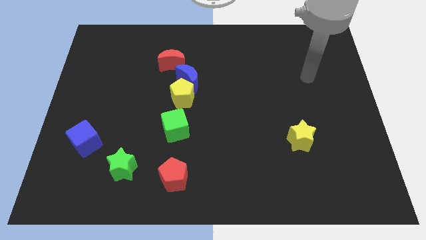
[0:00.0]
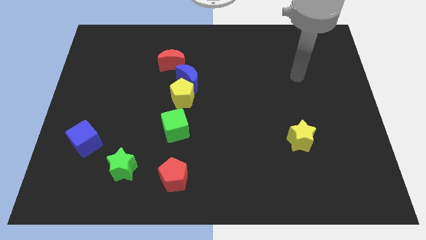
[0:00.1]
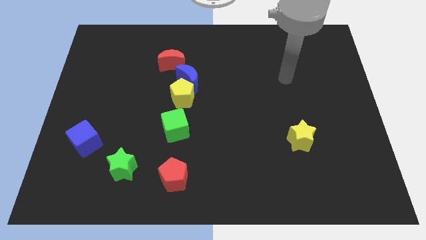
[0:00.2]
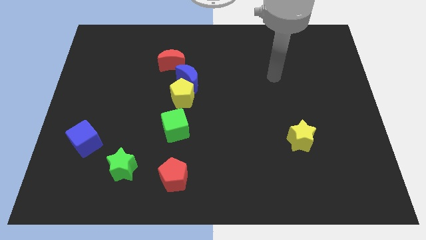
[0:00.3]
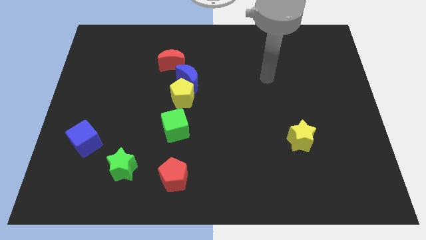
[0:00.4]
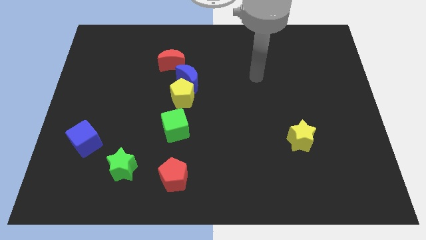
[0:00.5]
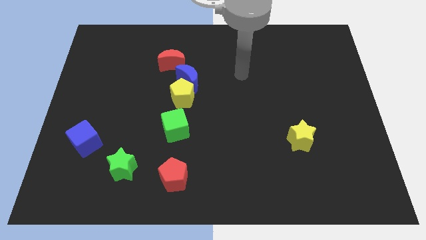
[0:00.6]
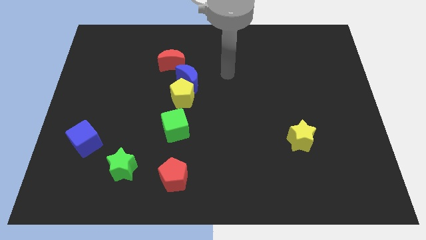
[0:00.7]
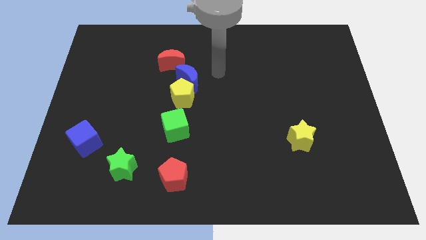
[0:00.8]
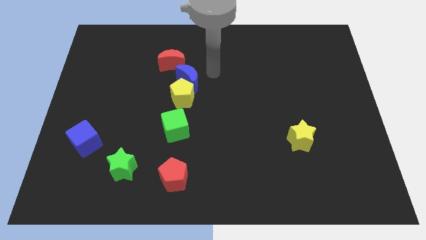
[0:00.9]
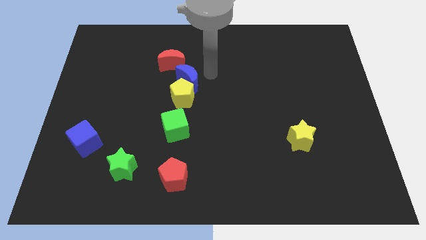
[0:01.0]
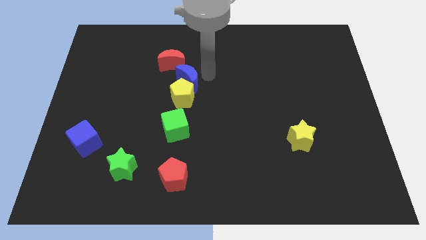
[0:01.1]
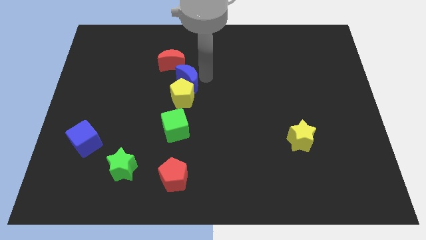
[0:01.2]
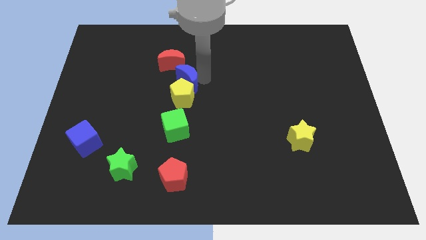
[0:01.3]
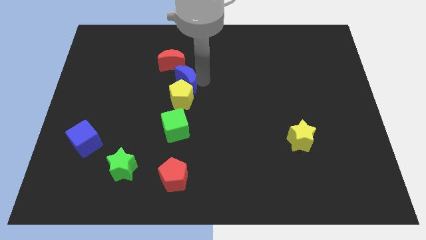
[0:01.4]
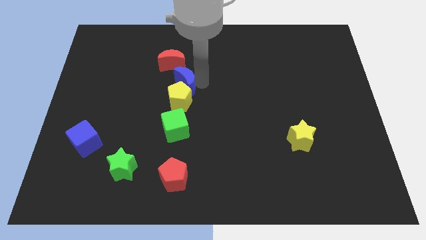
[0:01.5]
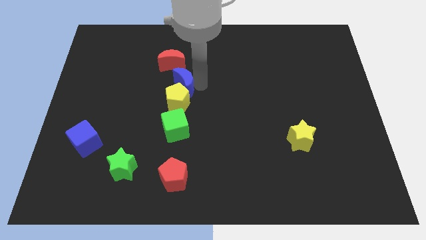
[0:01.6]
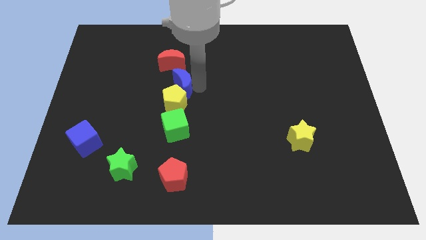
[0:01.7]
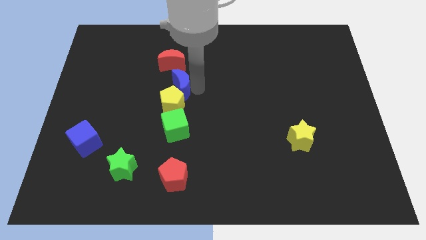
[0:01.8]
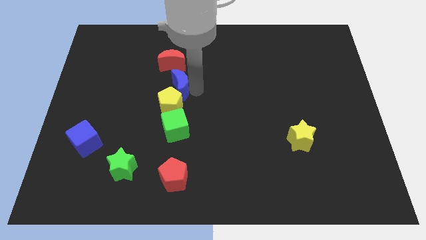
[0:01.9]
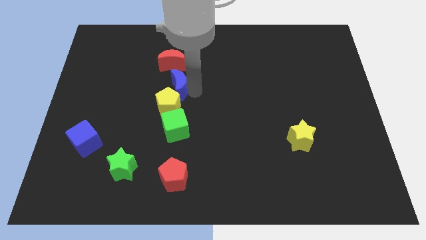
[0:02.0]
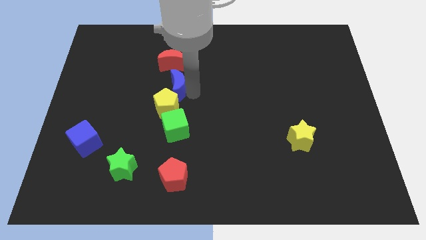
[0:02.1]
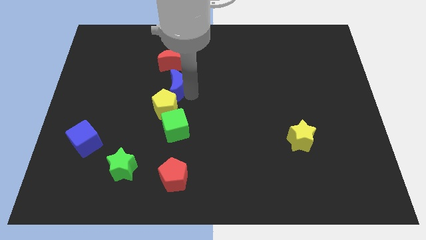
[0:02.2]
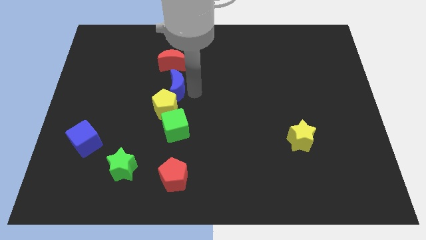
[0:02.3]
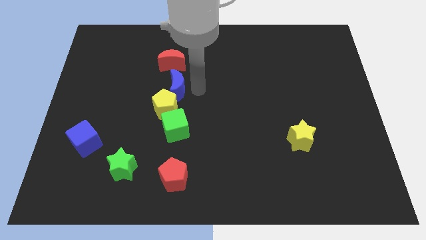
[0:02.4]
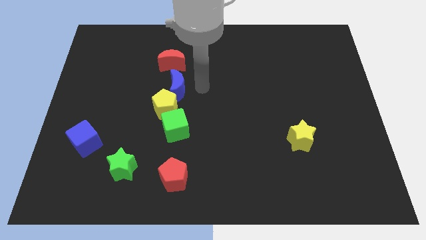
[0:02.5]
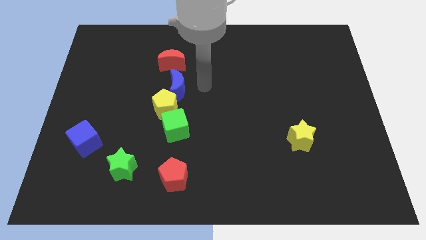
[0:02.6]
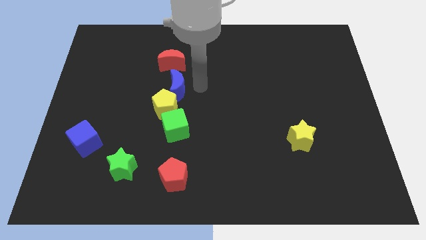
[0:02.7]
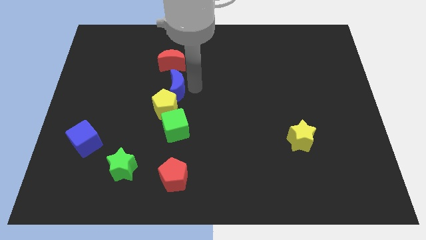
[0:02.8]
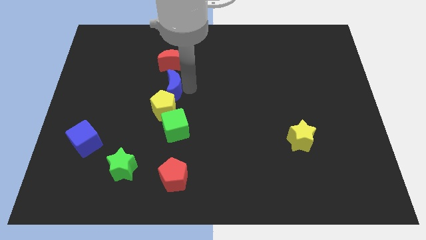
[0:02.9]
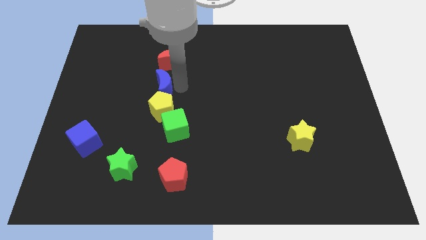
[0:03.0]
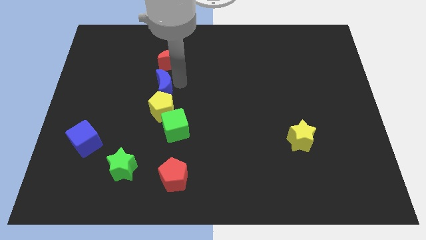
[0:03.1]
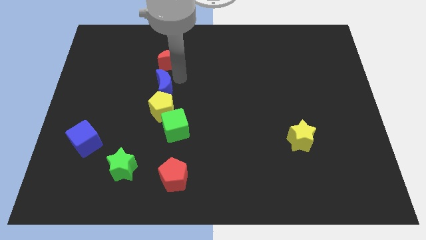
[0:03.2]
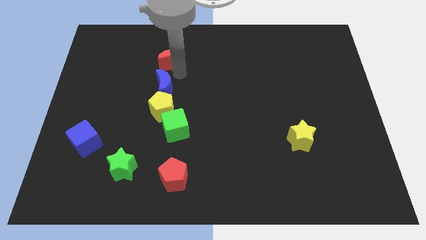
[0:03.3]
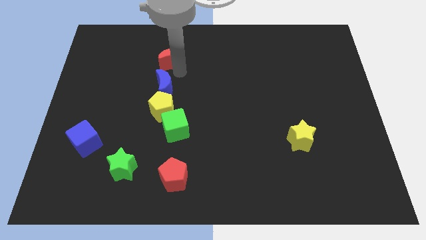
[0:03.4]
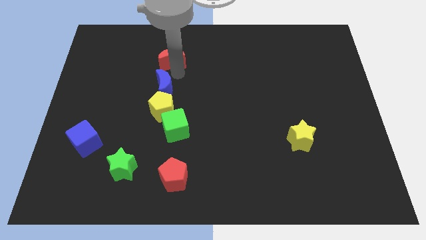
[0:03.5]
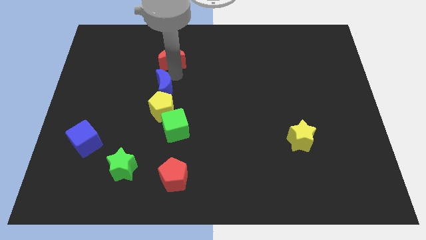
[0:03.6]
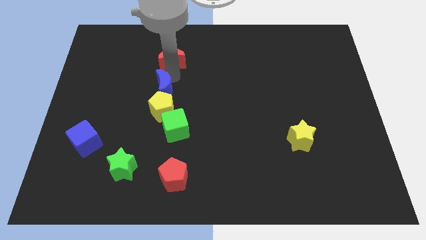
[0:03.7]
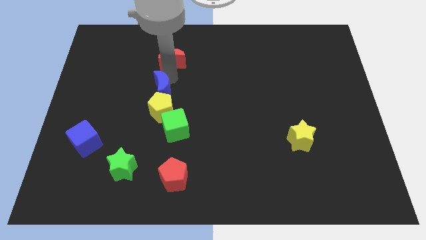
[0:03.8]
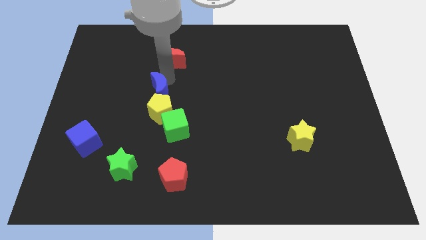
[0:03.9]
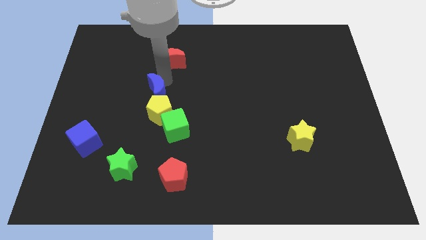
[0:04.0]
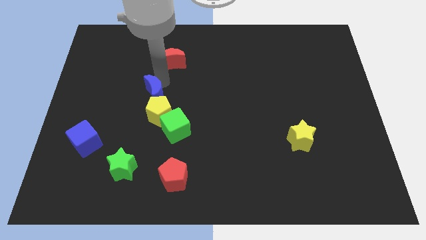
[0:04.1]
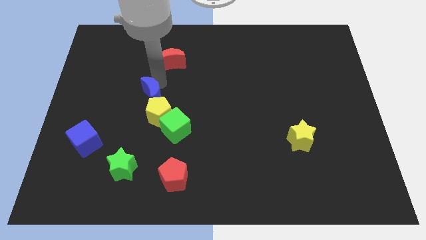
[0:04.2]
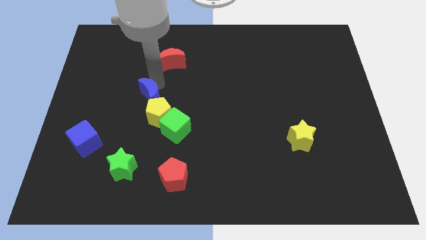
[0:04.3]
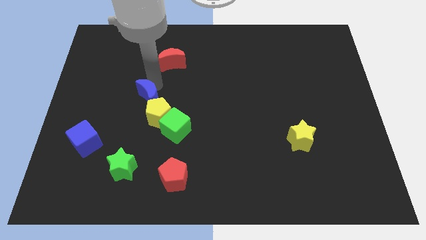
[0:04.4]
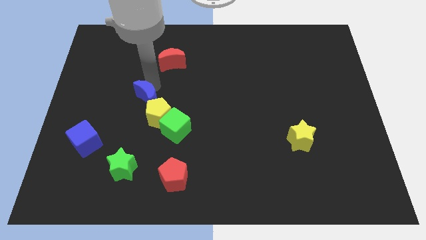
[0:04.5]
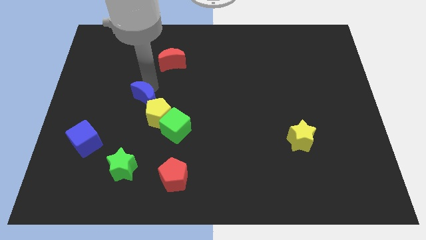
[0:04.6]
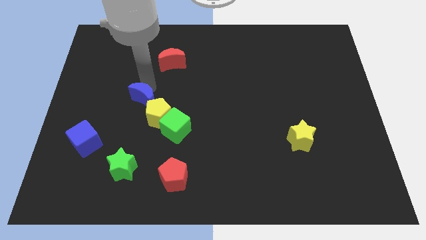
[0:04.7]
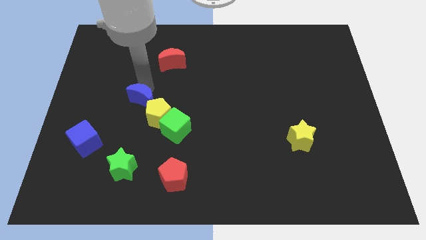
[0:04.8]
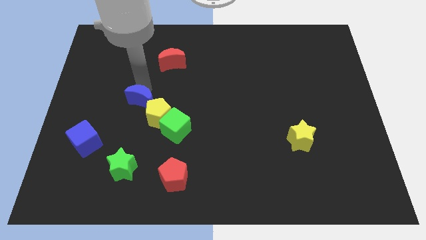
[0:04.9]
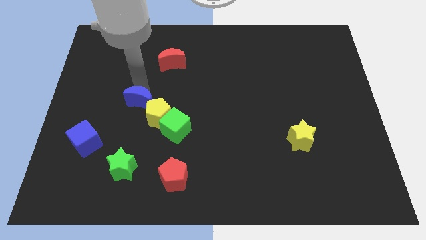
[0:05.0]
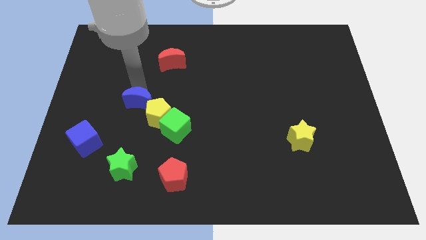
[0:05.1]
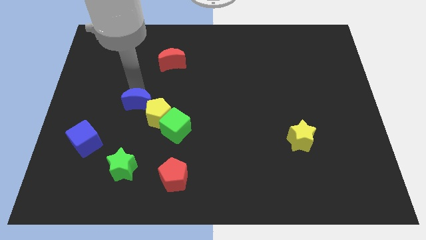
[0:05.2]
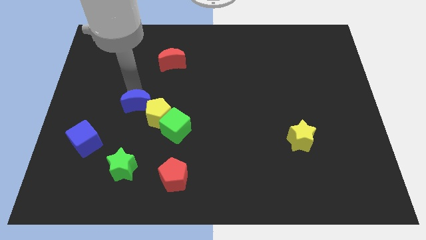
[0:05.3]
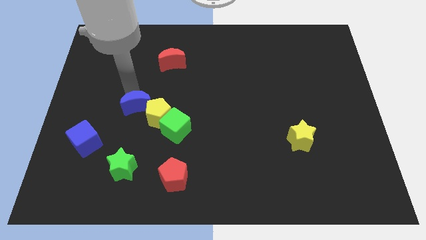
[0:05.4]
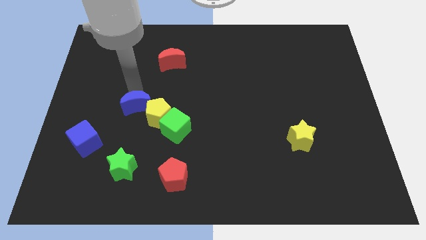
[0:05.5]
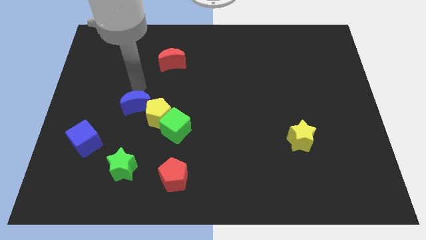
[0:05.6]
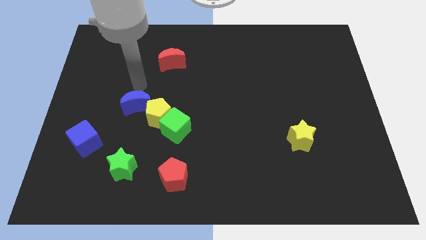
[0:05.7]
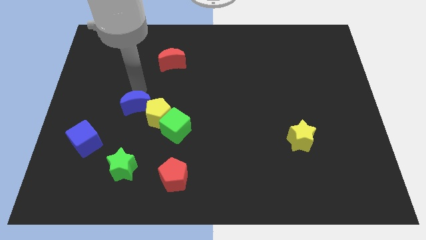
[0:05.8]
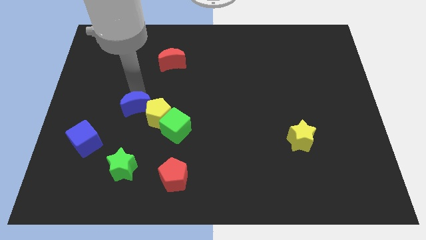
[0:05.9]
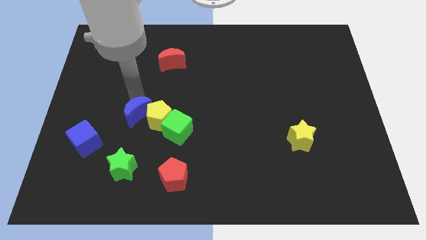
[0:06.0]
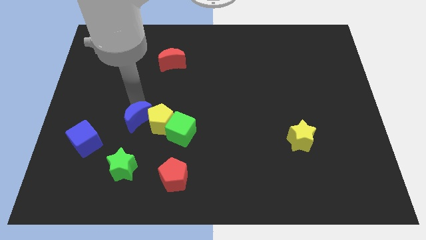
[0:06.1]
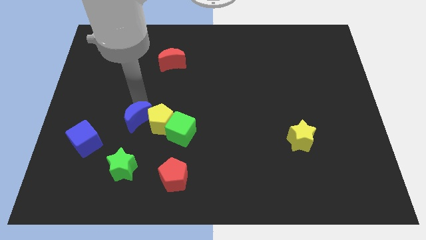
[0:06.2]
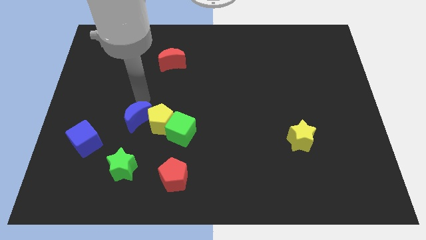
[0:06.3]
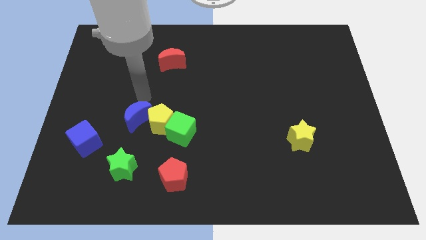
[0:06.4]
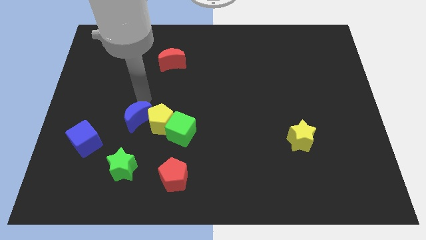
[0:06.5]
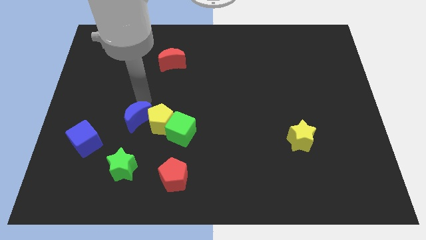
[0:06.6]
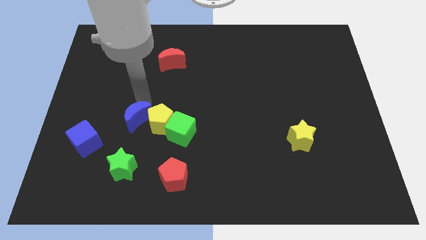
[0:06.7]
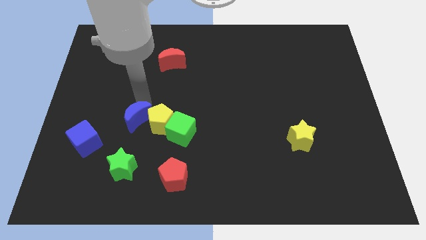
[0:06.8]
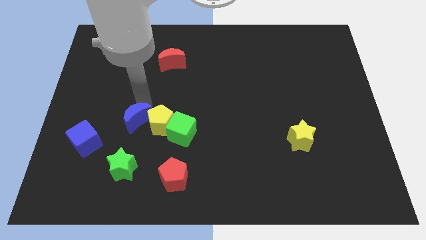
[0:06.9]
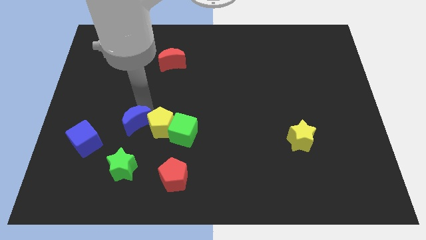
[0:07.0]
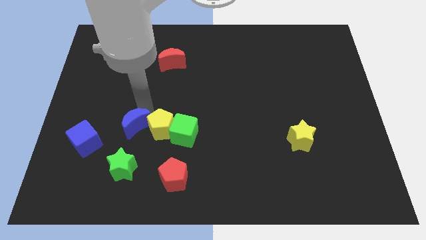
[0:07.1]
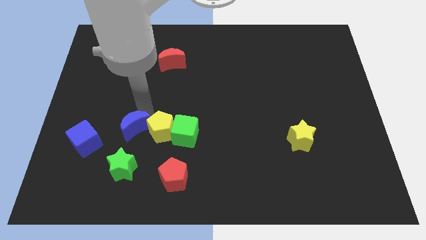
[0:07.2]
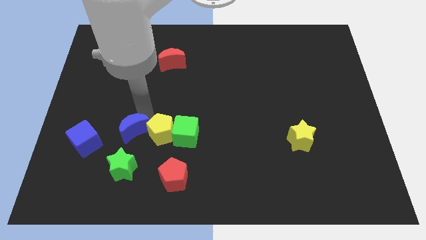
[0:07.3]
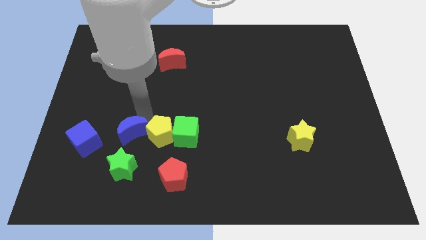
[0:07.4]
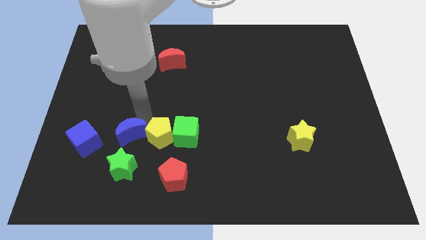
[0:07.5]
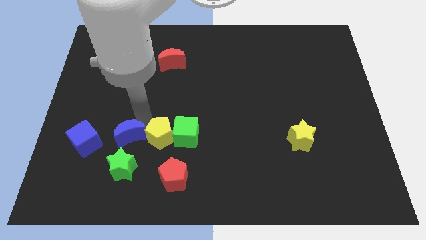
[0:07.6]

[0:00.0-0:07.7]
move the blue moon diagonally down and to the left

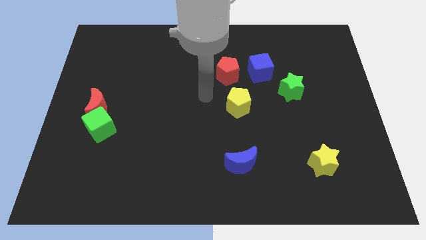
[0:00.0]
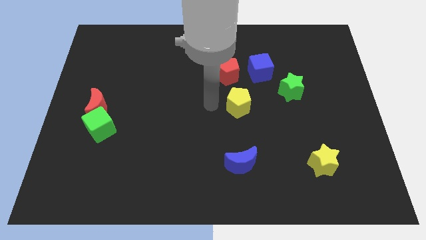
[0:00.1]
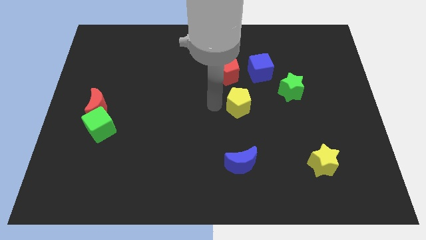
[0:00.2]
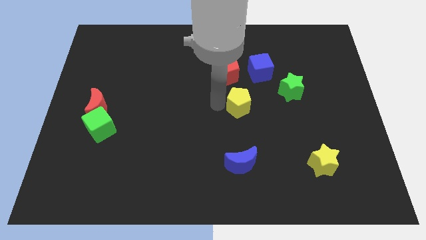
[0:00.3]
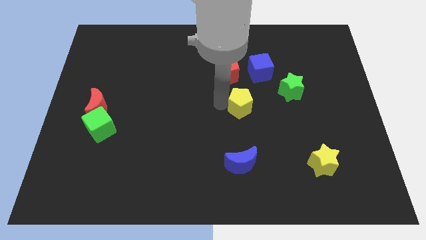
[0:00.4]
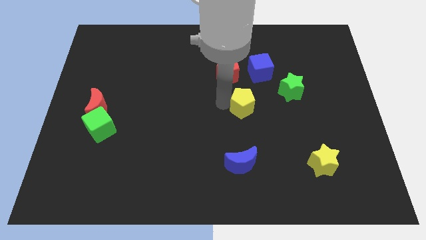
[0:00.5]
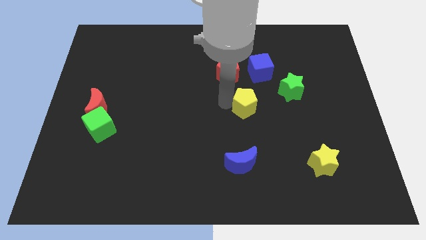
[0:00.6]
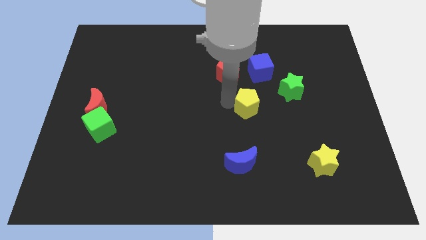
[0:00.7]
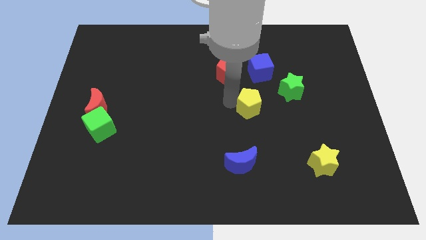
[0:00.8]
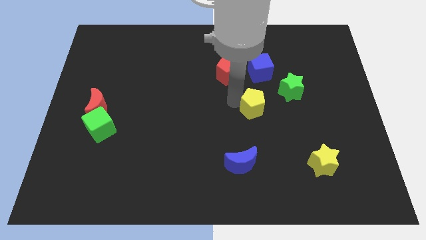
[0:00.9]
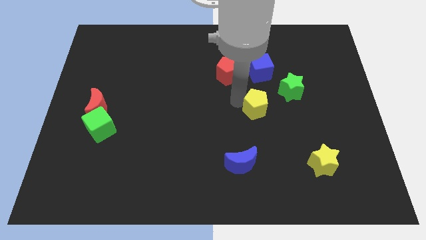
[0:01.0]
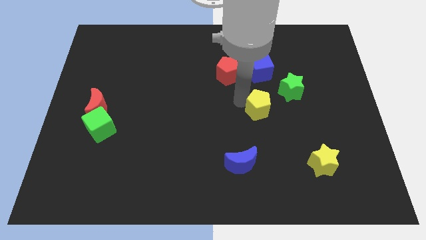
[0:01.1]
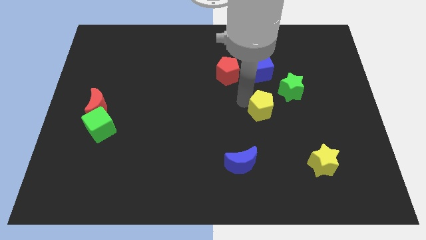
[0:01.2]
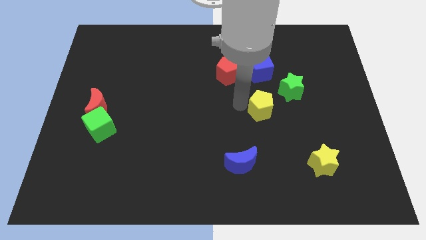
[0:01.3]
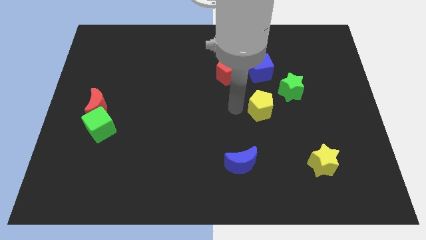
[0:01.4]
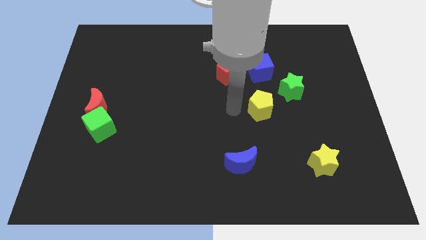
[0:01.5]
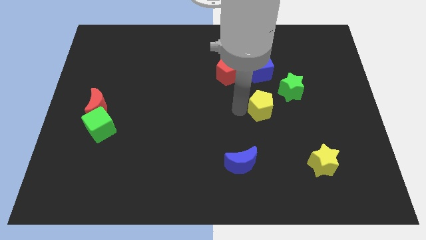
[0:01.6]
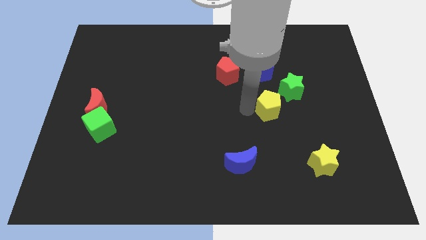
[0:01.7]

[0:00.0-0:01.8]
push the yellow pentagon a little bit to the right
